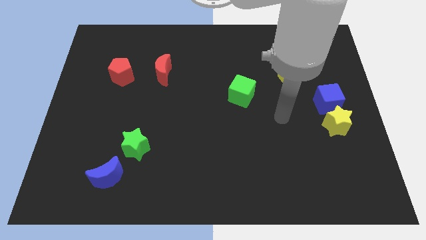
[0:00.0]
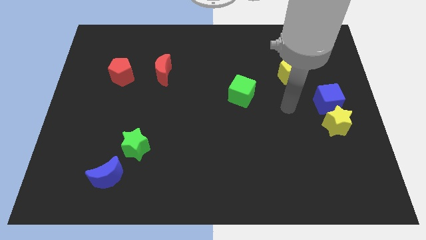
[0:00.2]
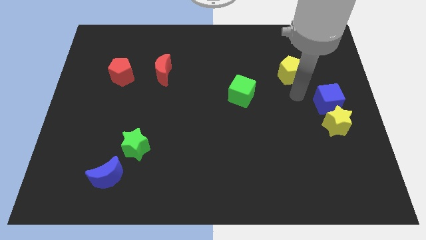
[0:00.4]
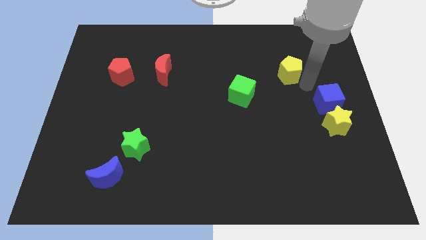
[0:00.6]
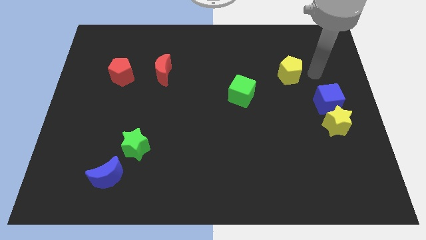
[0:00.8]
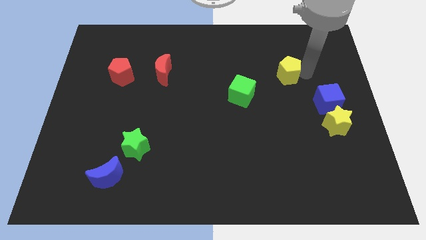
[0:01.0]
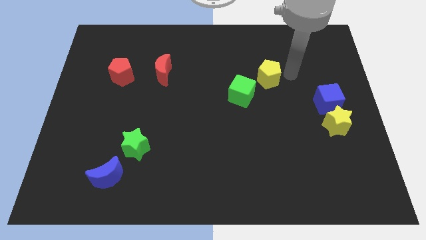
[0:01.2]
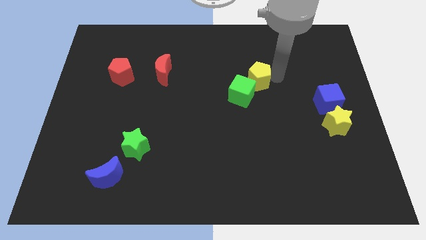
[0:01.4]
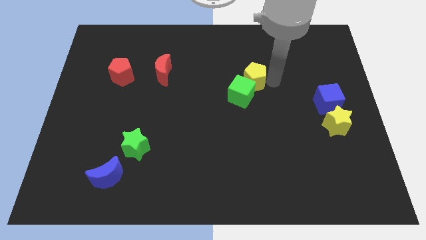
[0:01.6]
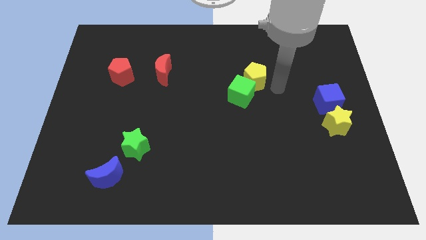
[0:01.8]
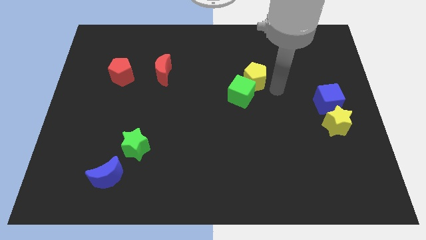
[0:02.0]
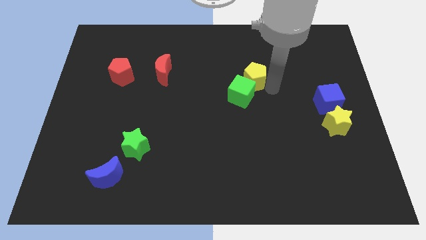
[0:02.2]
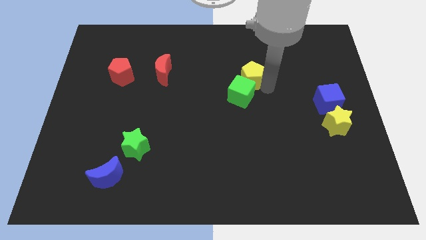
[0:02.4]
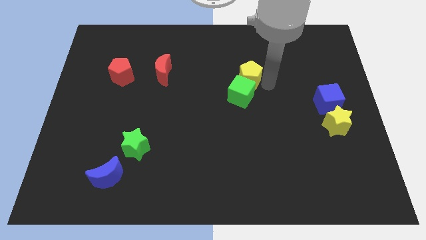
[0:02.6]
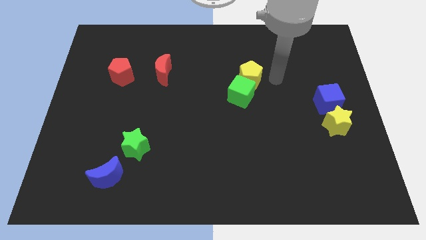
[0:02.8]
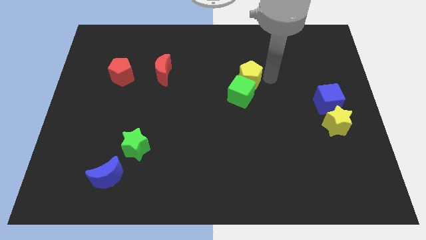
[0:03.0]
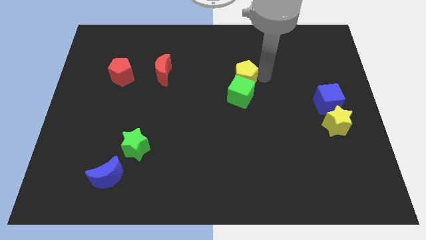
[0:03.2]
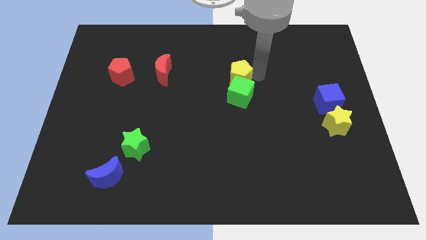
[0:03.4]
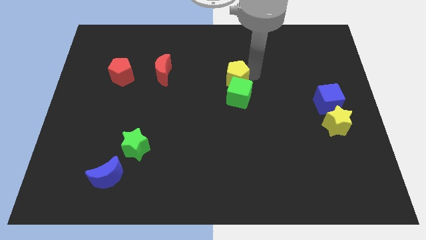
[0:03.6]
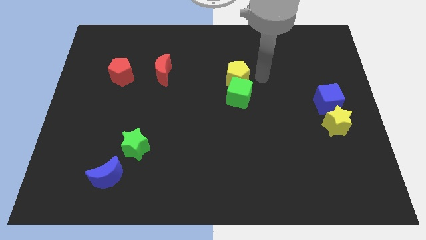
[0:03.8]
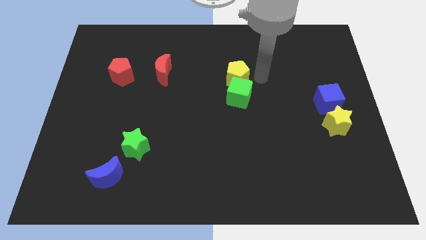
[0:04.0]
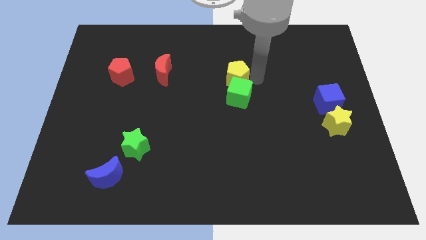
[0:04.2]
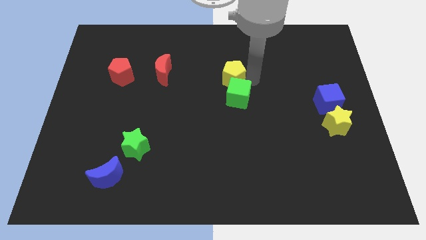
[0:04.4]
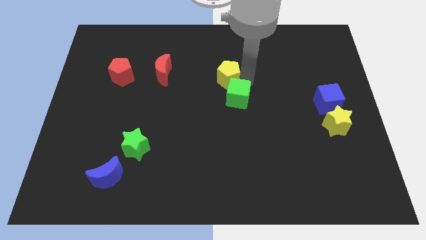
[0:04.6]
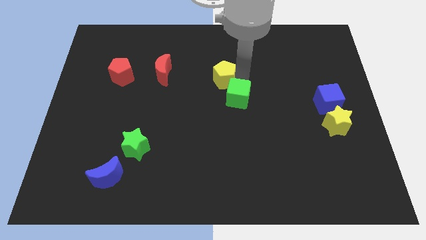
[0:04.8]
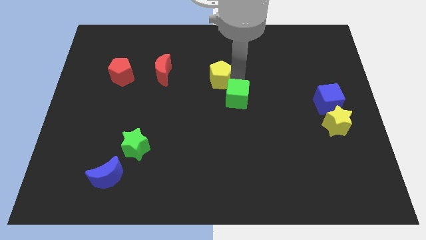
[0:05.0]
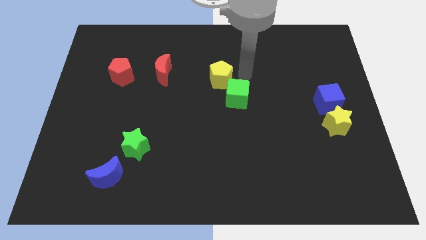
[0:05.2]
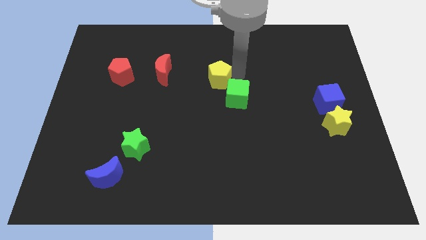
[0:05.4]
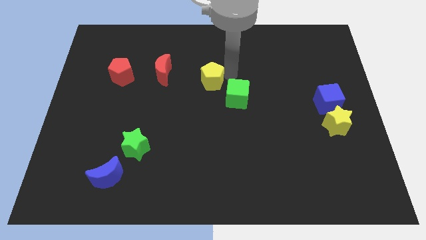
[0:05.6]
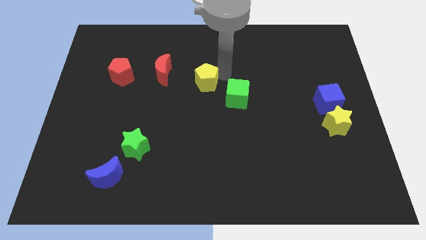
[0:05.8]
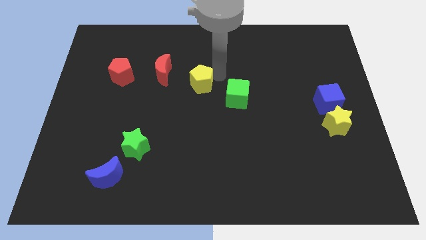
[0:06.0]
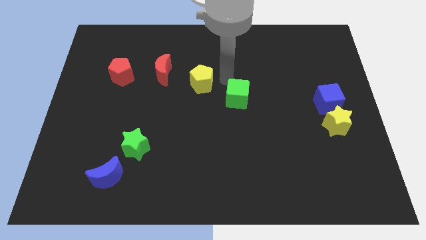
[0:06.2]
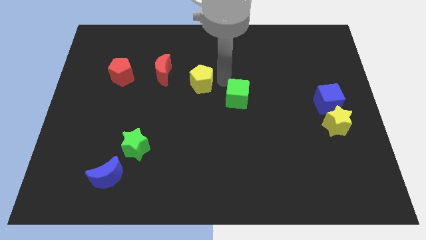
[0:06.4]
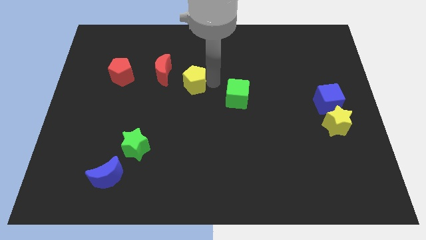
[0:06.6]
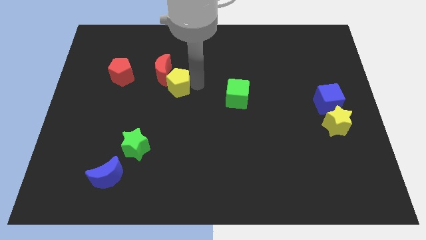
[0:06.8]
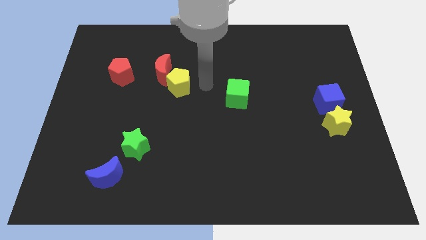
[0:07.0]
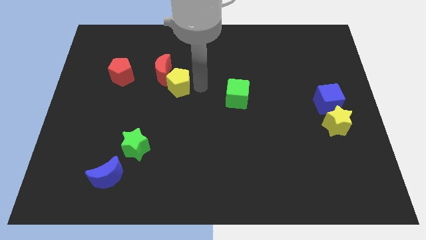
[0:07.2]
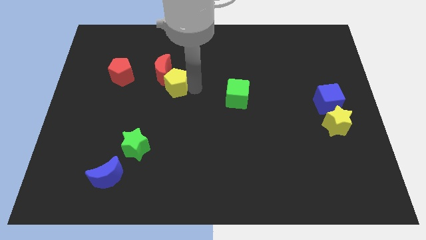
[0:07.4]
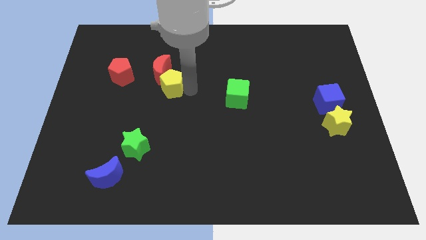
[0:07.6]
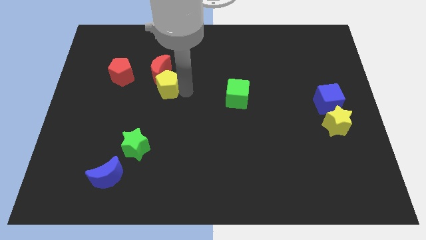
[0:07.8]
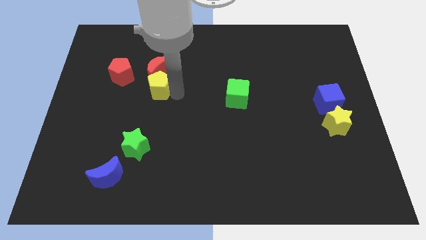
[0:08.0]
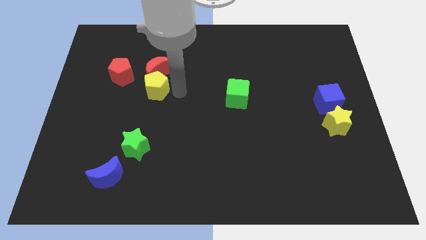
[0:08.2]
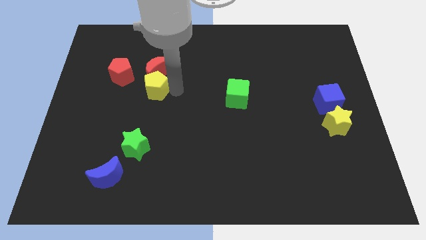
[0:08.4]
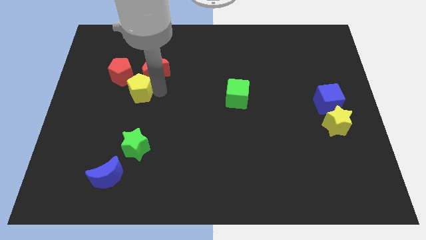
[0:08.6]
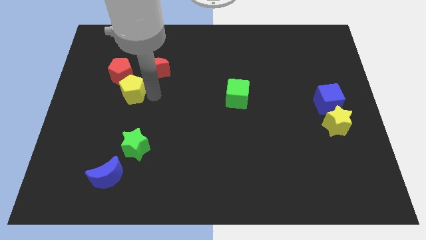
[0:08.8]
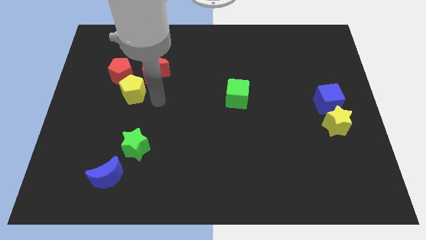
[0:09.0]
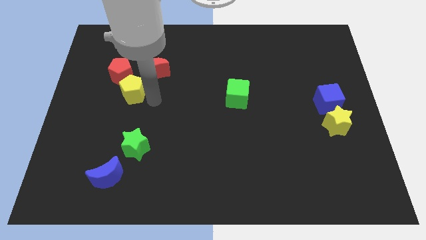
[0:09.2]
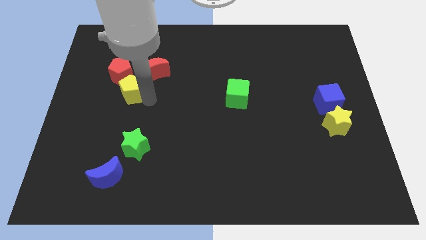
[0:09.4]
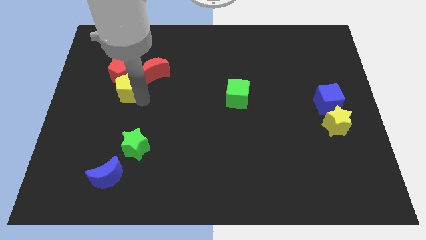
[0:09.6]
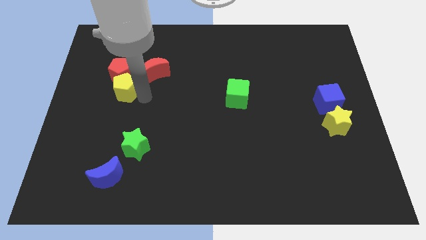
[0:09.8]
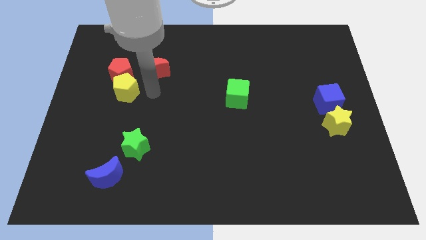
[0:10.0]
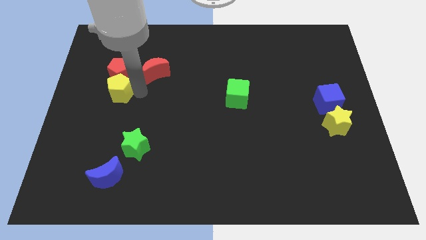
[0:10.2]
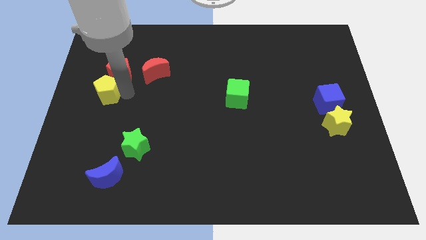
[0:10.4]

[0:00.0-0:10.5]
move the yellow pentagon to the left side

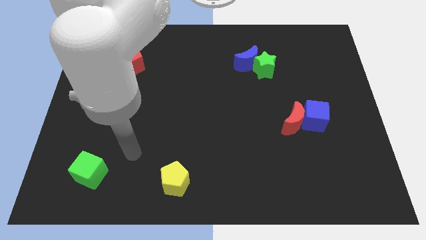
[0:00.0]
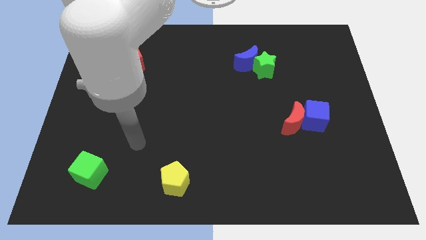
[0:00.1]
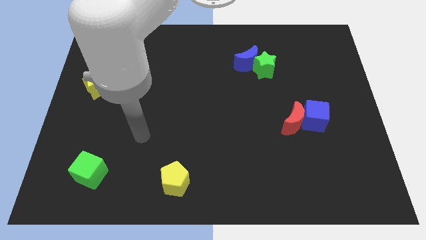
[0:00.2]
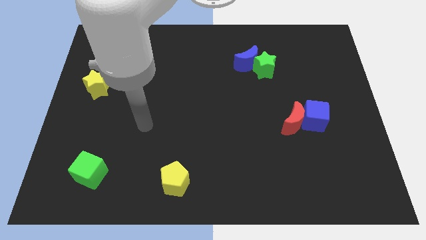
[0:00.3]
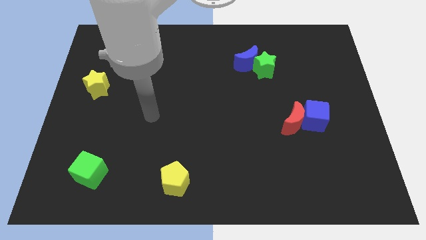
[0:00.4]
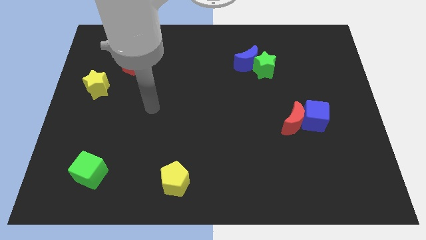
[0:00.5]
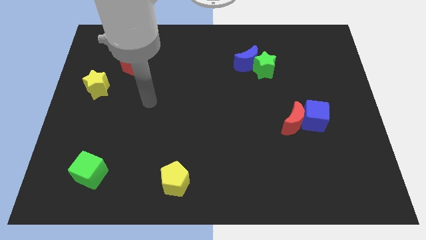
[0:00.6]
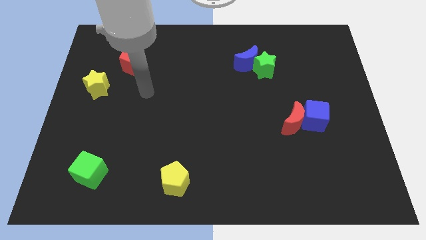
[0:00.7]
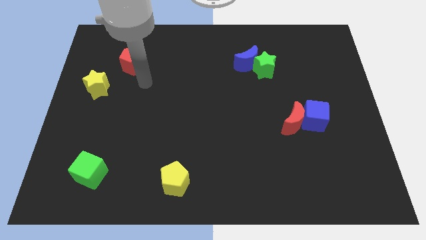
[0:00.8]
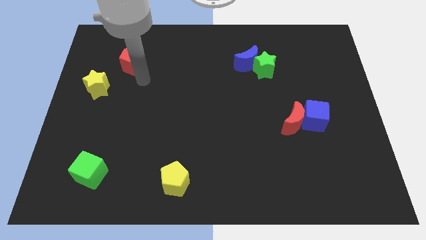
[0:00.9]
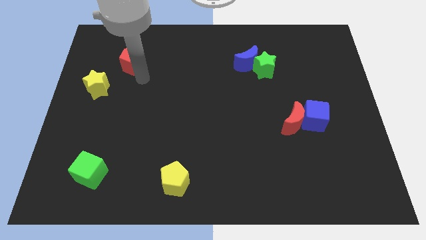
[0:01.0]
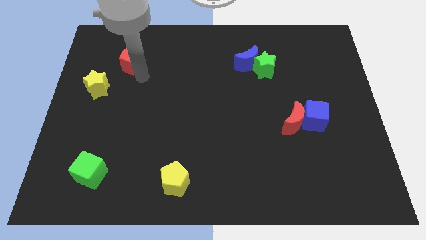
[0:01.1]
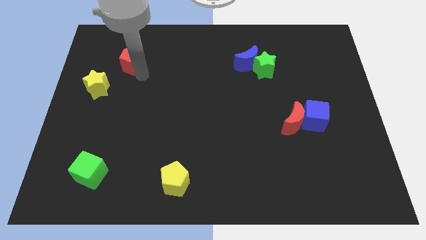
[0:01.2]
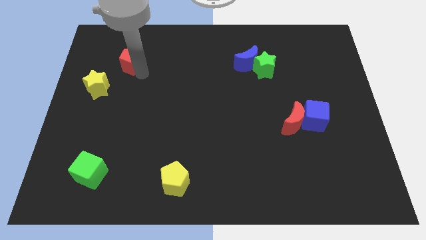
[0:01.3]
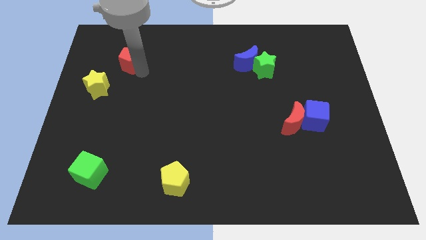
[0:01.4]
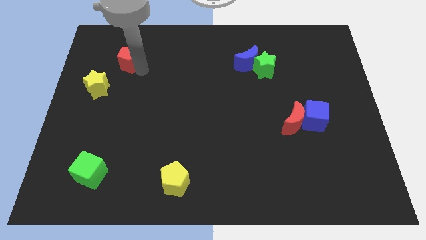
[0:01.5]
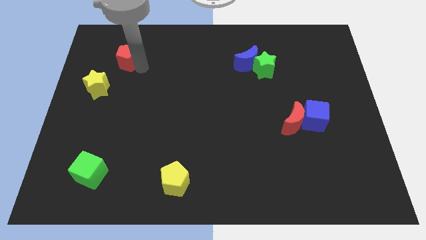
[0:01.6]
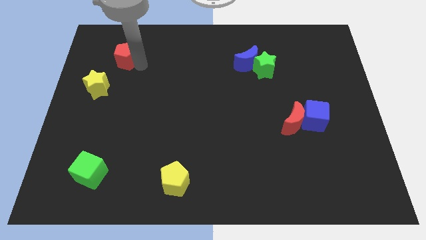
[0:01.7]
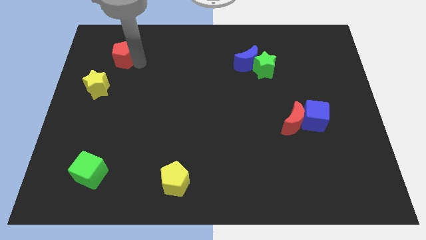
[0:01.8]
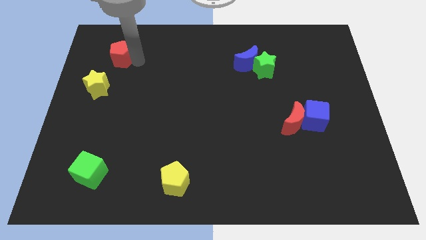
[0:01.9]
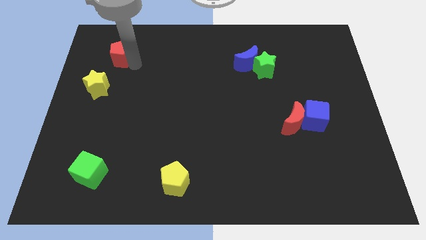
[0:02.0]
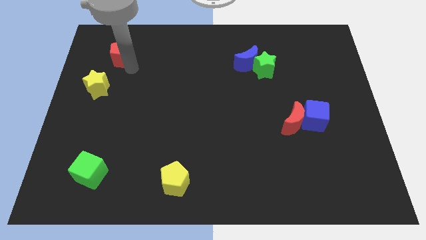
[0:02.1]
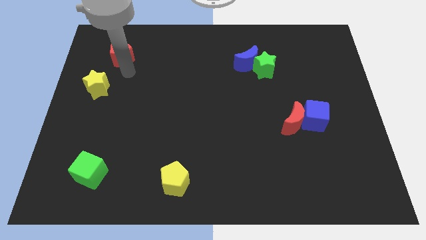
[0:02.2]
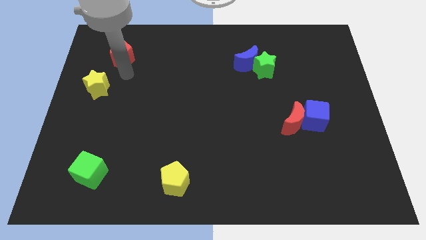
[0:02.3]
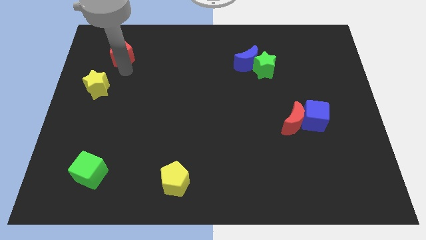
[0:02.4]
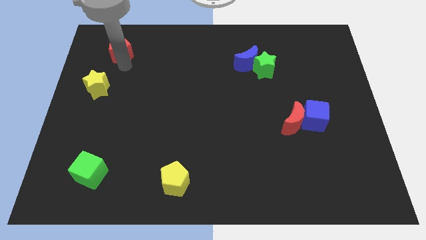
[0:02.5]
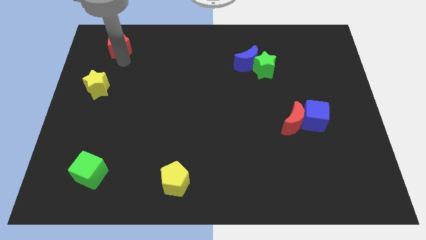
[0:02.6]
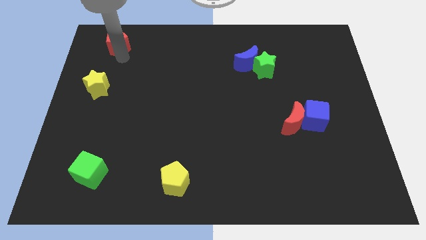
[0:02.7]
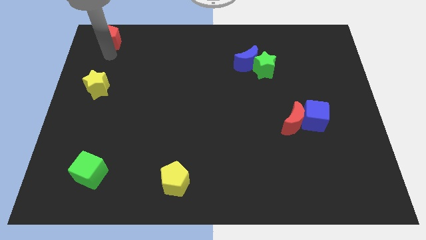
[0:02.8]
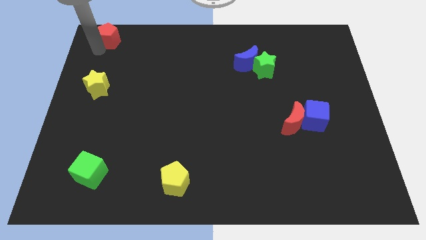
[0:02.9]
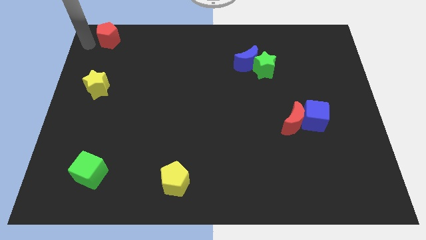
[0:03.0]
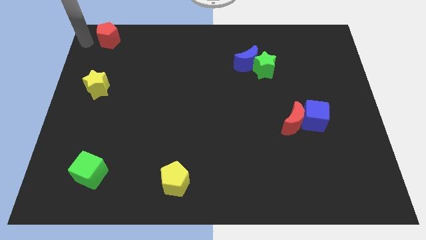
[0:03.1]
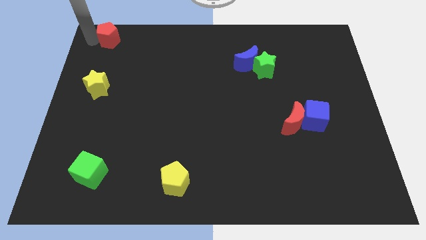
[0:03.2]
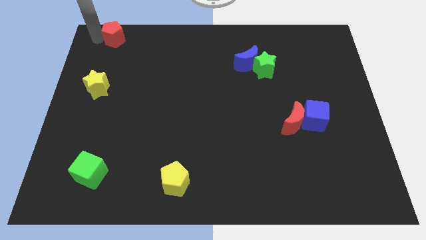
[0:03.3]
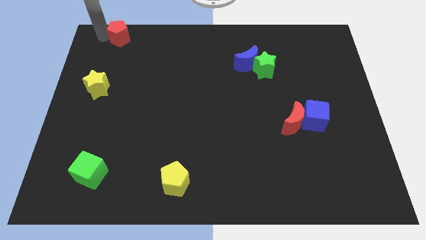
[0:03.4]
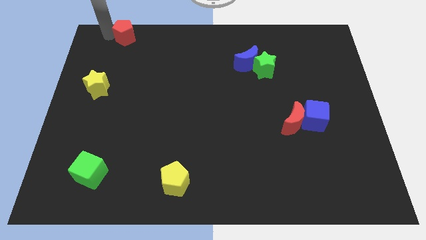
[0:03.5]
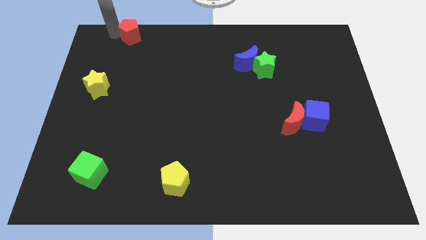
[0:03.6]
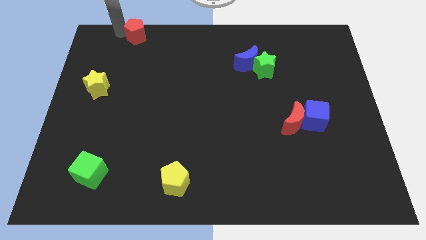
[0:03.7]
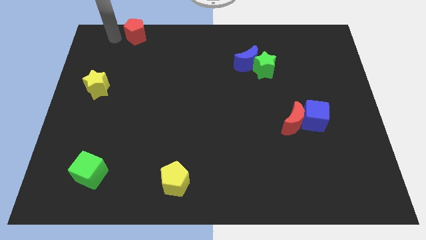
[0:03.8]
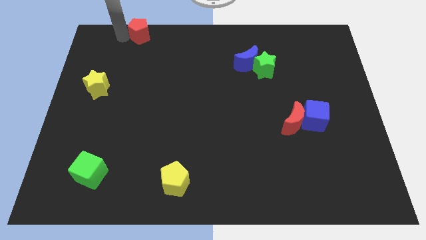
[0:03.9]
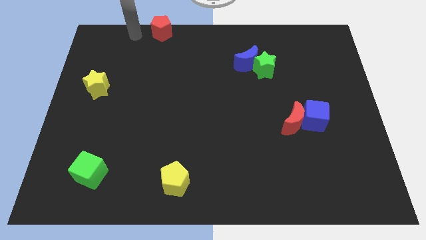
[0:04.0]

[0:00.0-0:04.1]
push the red pentagon to the top side
